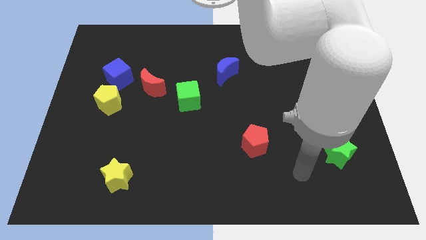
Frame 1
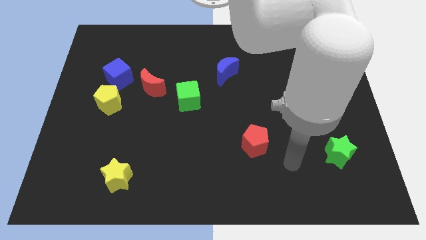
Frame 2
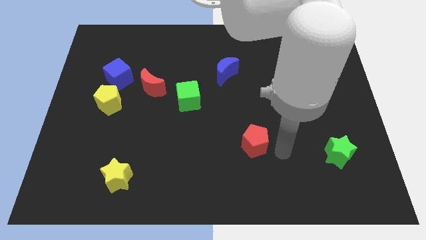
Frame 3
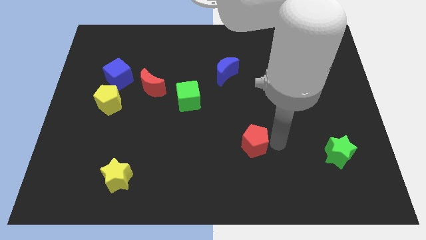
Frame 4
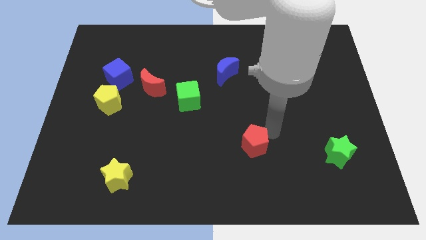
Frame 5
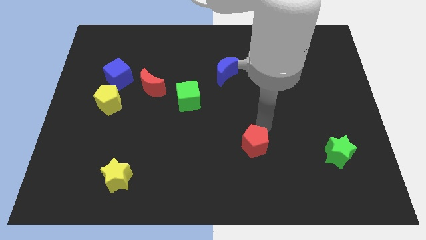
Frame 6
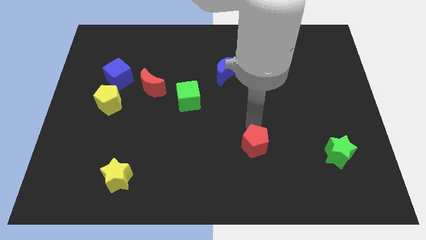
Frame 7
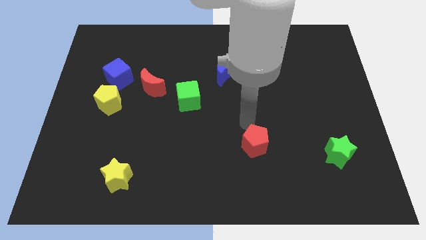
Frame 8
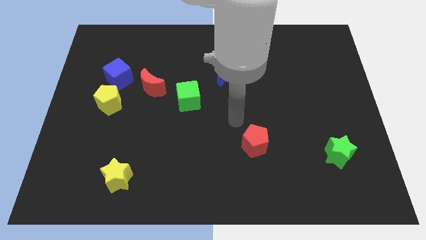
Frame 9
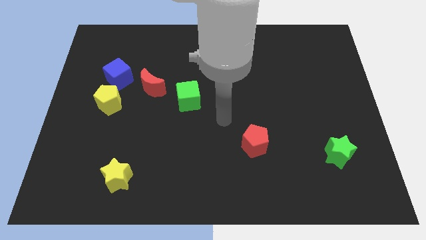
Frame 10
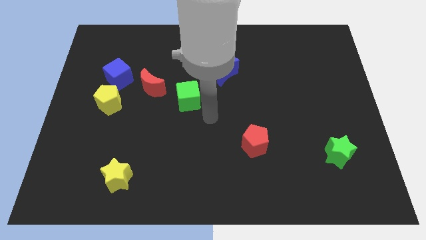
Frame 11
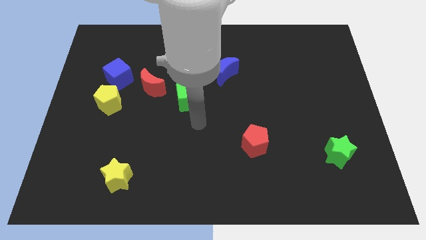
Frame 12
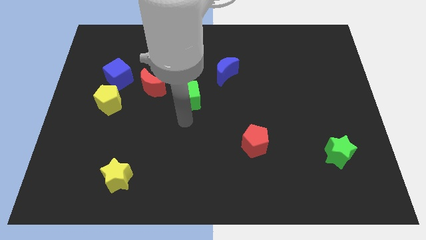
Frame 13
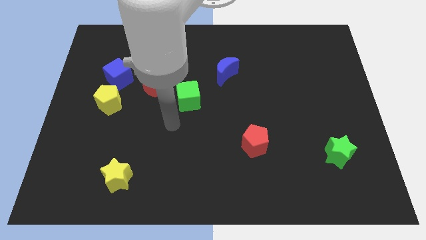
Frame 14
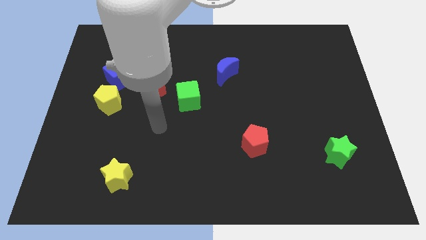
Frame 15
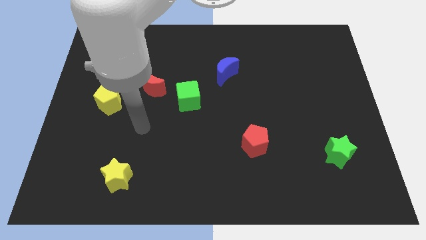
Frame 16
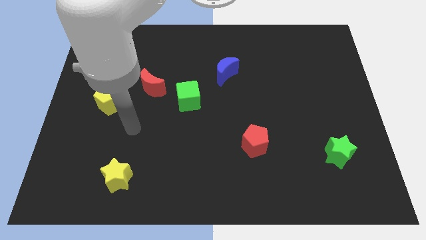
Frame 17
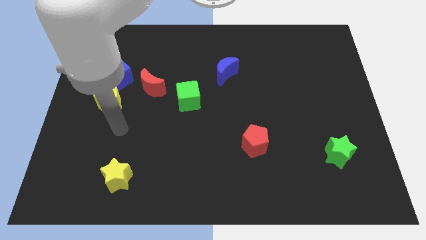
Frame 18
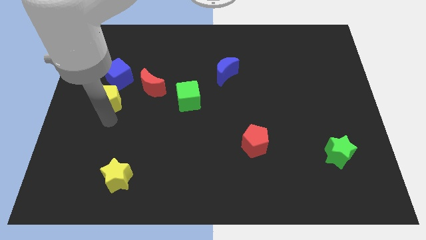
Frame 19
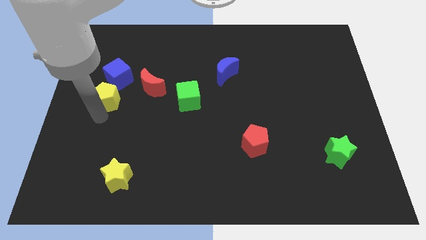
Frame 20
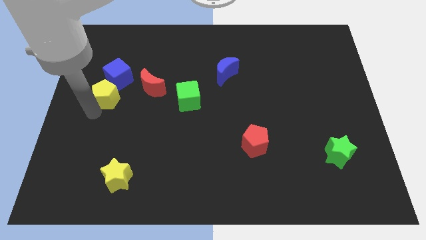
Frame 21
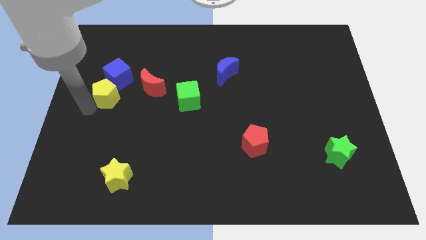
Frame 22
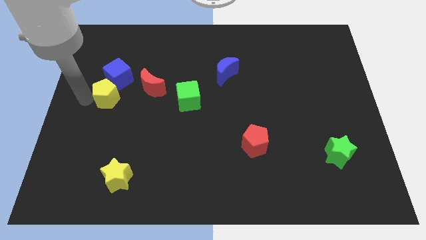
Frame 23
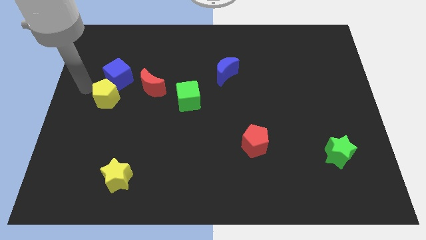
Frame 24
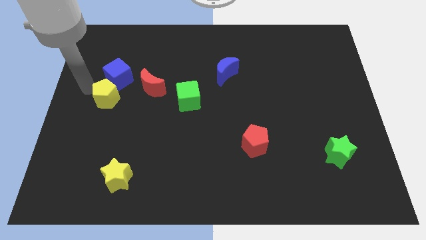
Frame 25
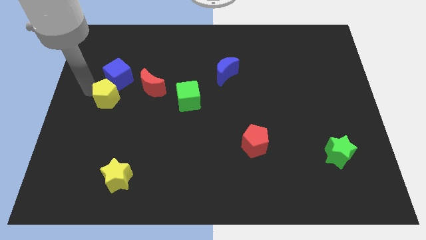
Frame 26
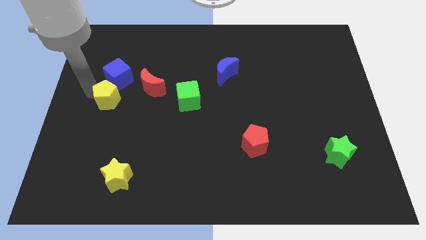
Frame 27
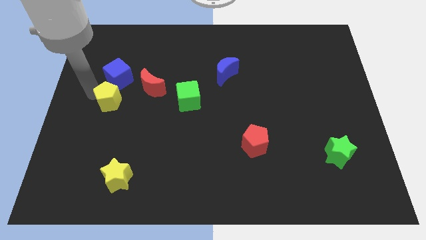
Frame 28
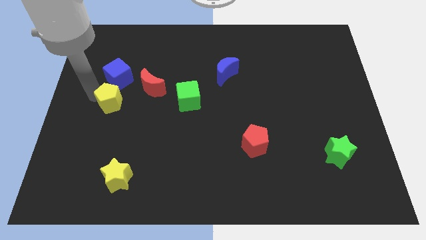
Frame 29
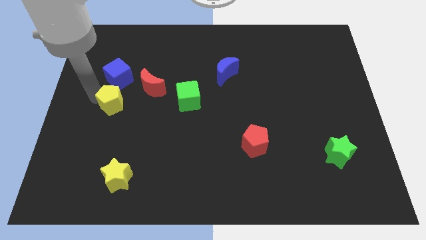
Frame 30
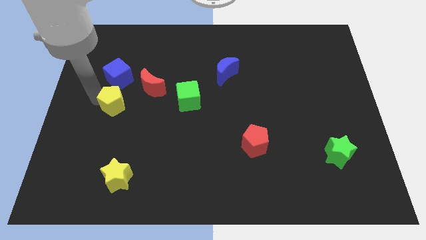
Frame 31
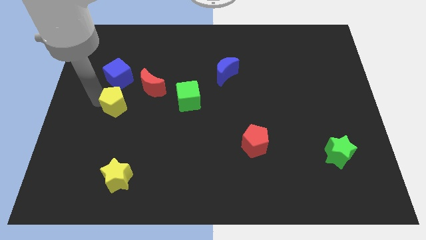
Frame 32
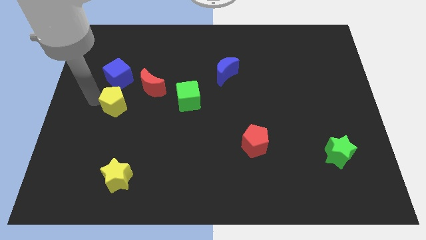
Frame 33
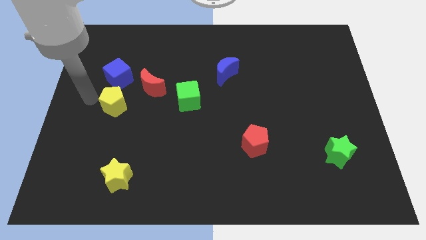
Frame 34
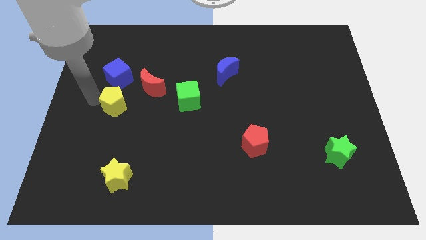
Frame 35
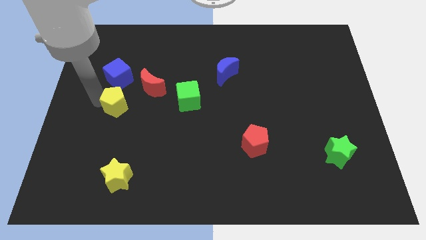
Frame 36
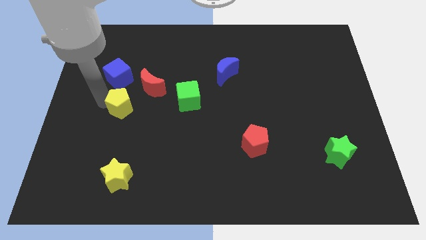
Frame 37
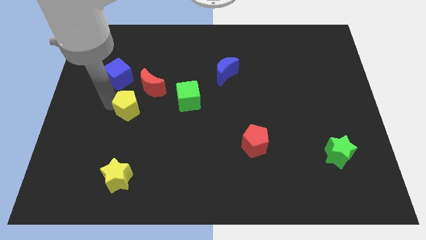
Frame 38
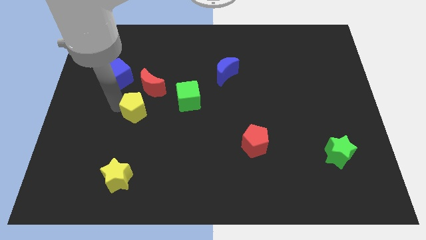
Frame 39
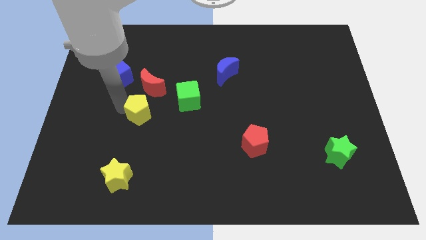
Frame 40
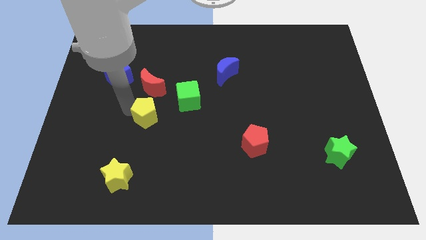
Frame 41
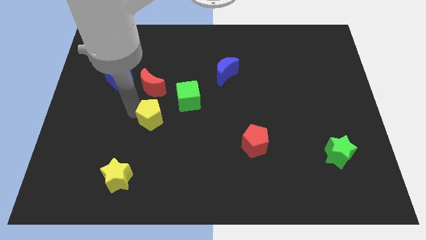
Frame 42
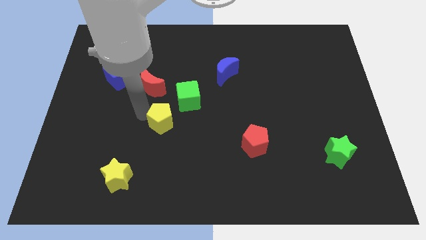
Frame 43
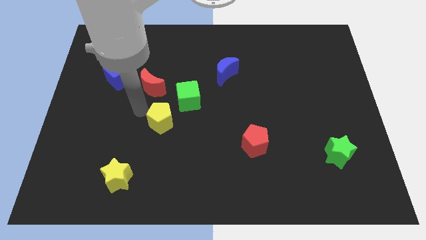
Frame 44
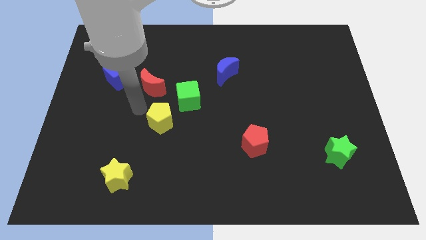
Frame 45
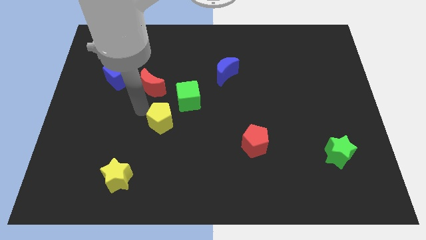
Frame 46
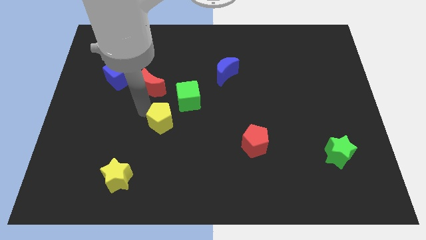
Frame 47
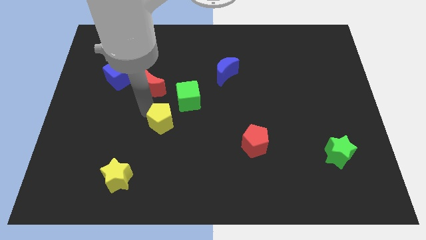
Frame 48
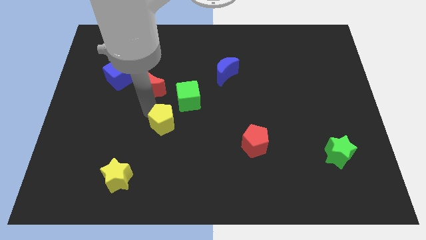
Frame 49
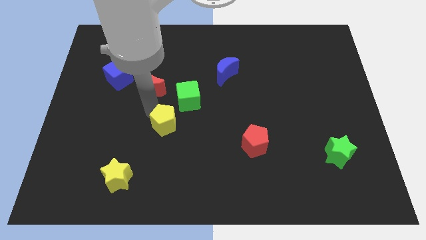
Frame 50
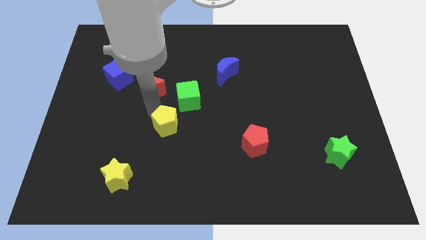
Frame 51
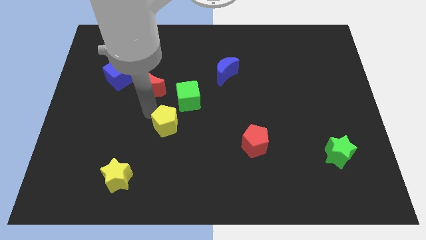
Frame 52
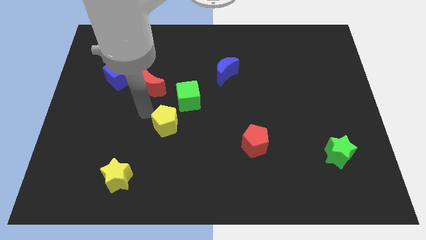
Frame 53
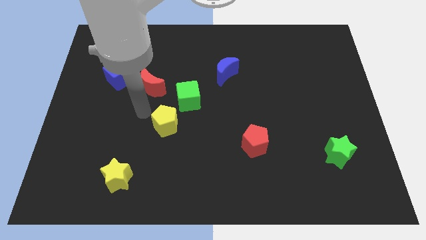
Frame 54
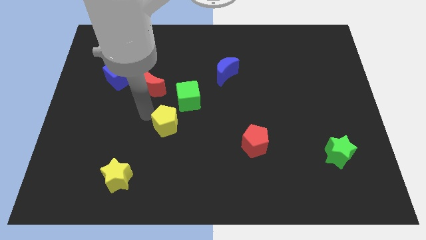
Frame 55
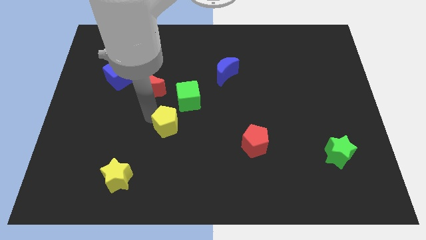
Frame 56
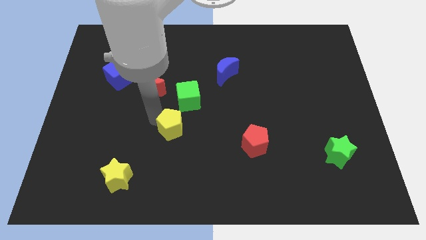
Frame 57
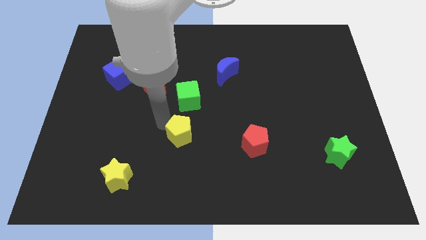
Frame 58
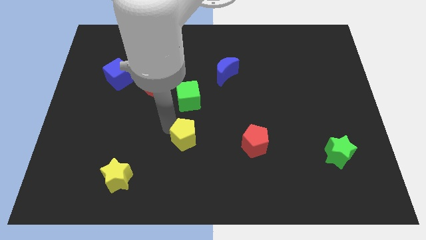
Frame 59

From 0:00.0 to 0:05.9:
move the yellow pentagon to the left of the red pentagon

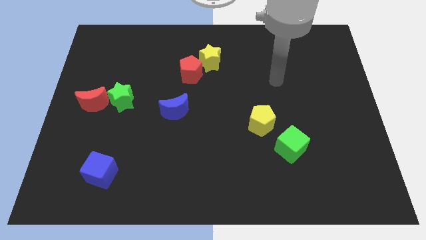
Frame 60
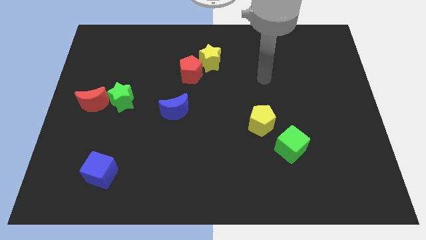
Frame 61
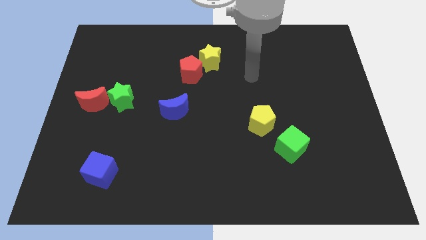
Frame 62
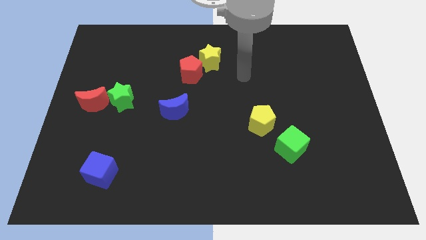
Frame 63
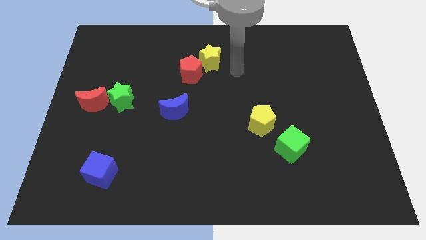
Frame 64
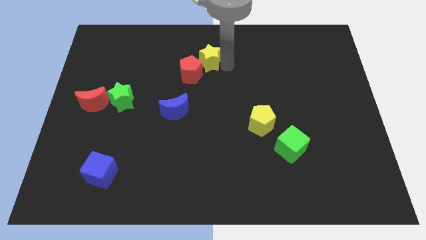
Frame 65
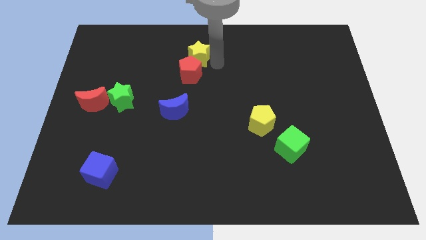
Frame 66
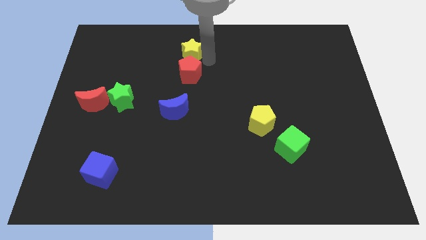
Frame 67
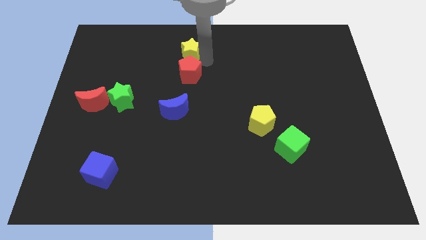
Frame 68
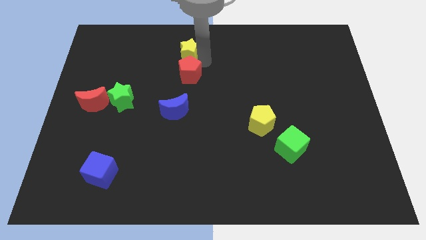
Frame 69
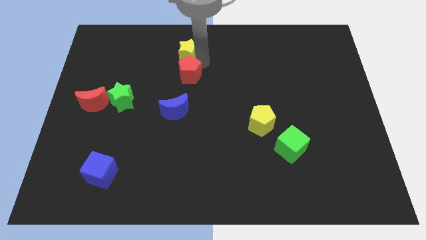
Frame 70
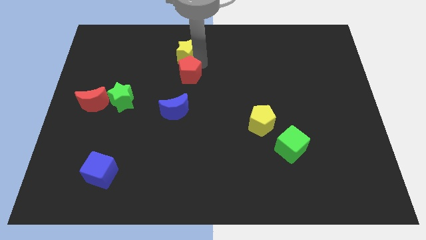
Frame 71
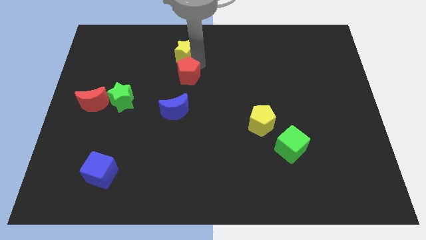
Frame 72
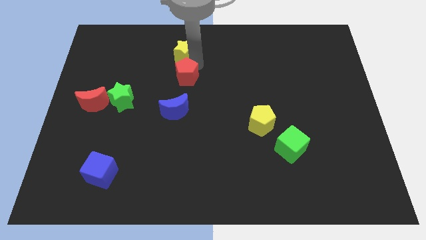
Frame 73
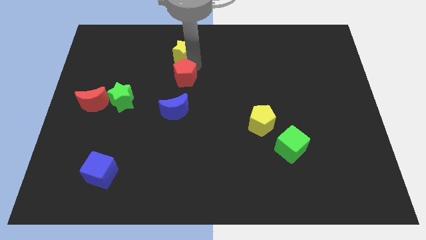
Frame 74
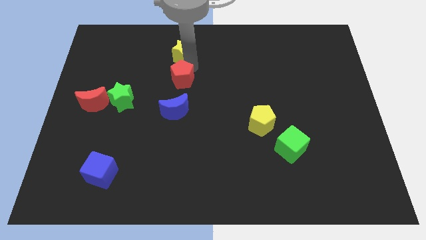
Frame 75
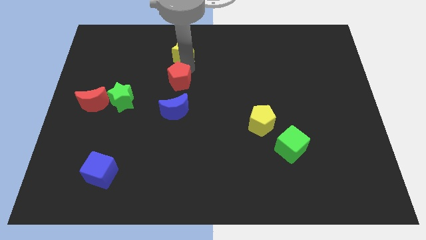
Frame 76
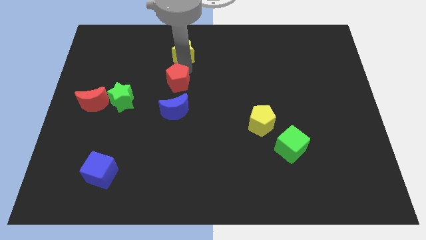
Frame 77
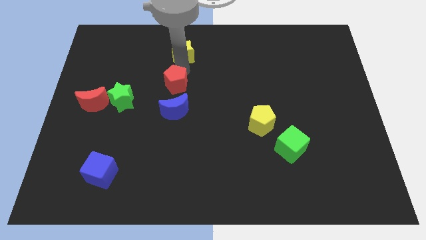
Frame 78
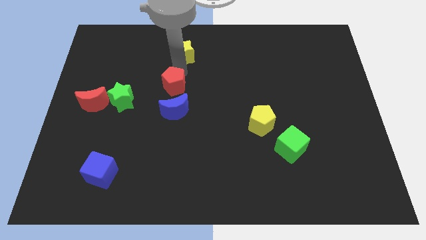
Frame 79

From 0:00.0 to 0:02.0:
slide the red pentagon right of the green star
